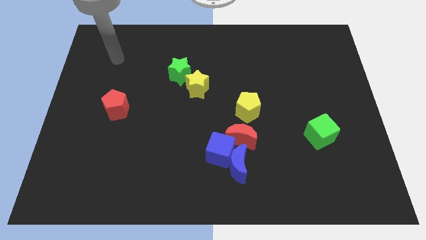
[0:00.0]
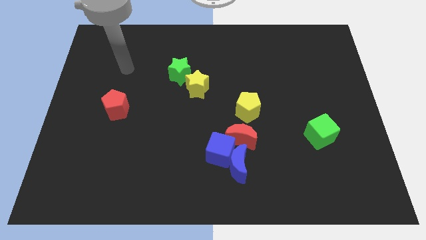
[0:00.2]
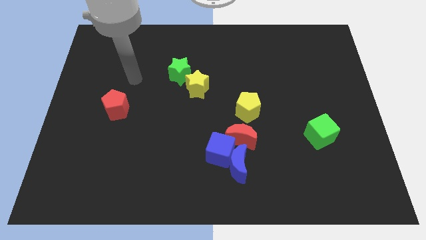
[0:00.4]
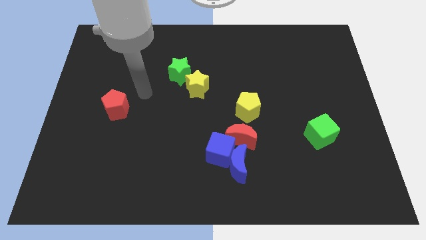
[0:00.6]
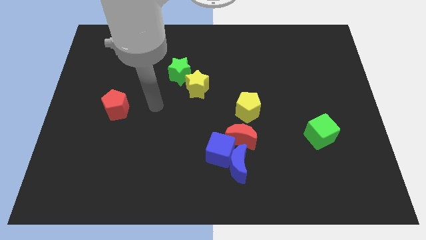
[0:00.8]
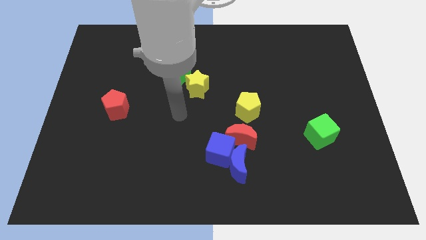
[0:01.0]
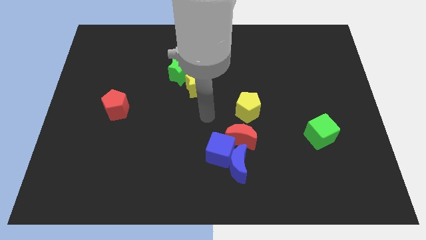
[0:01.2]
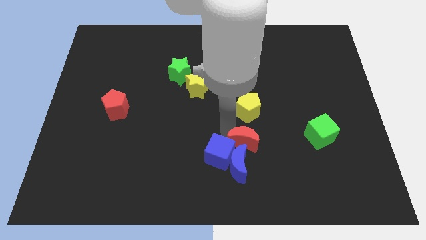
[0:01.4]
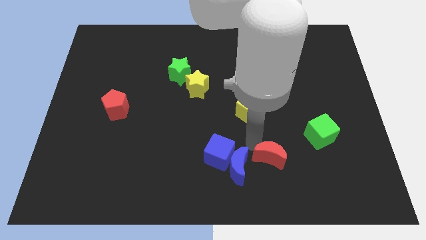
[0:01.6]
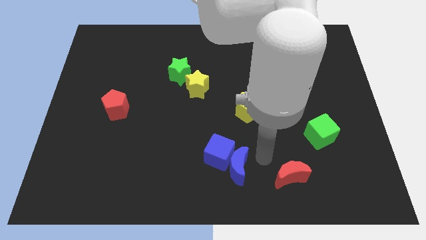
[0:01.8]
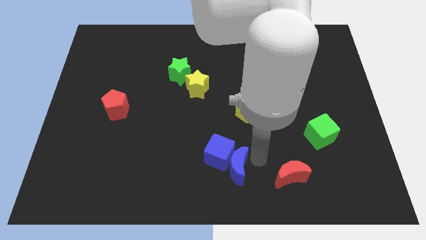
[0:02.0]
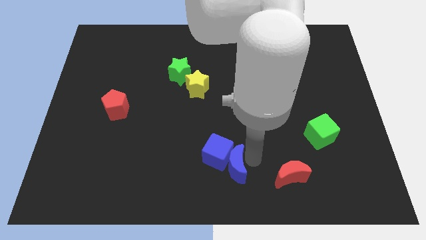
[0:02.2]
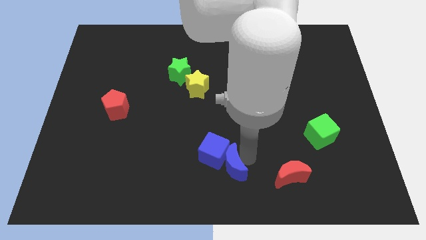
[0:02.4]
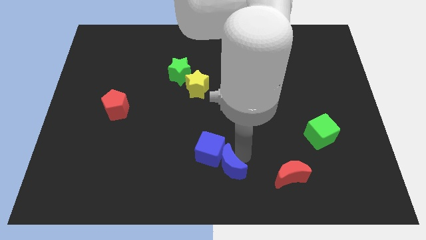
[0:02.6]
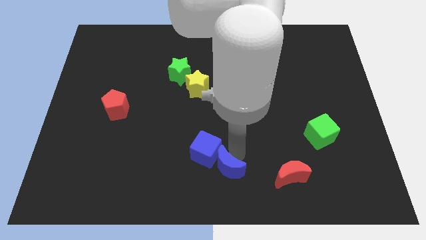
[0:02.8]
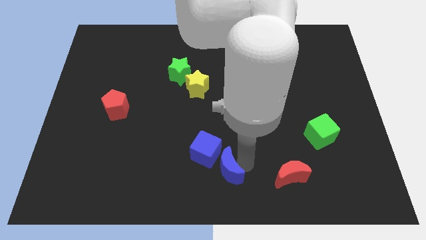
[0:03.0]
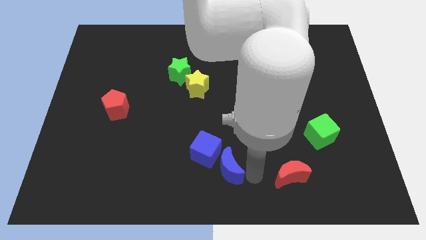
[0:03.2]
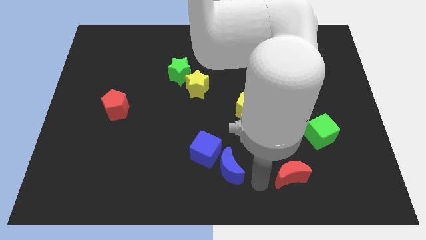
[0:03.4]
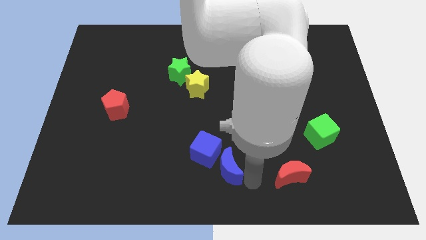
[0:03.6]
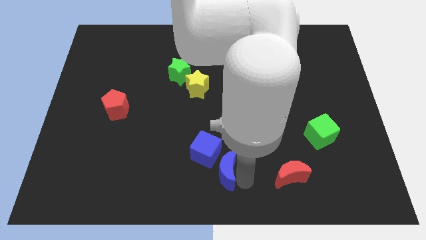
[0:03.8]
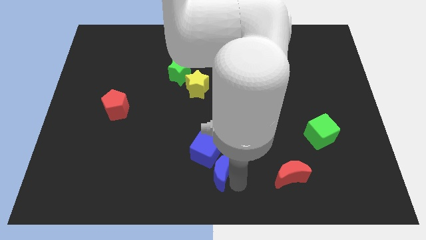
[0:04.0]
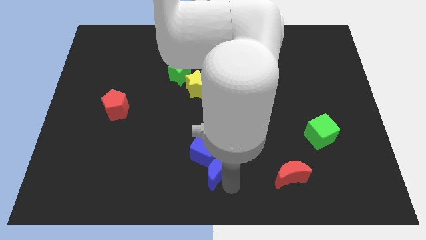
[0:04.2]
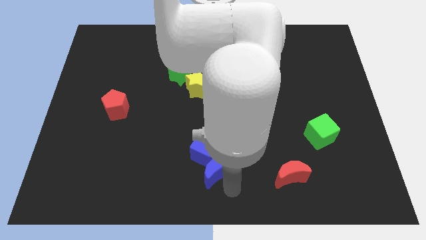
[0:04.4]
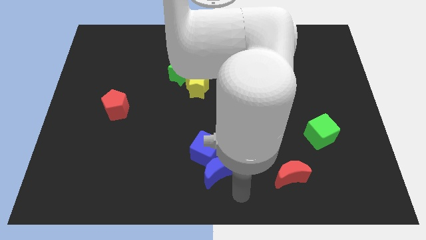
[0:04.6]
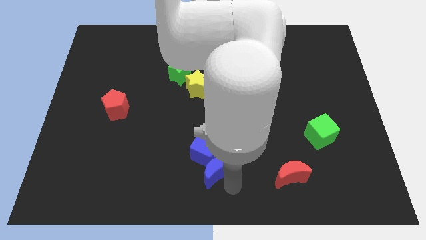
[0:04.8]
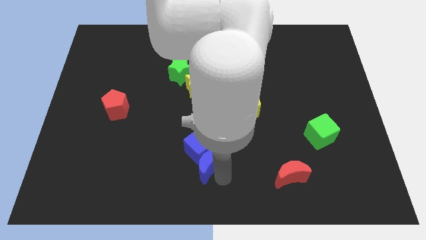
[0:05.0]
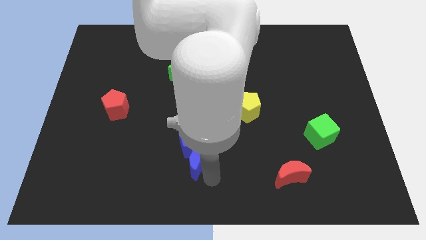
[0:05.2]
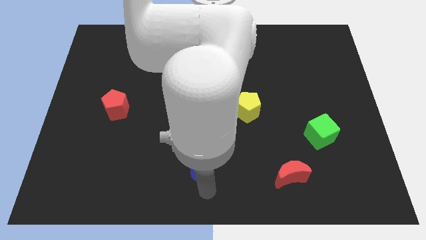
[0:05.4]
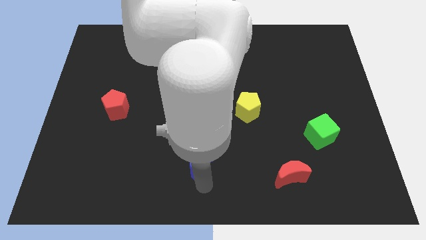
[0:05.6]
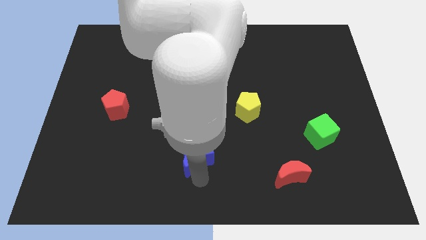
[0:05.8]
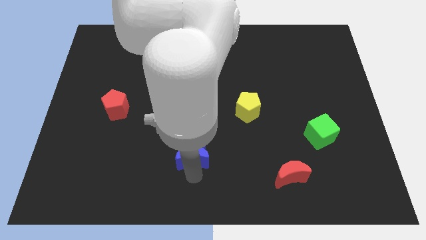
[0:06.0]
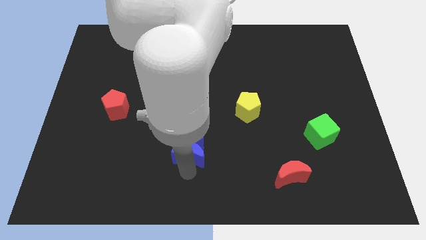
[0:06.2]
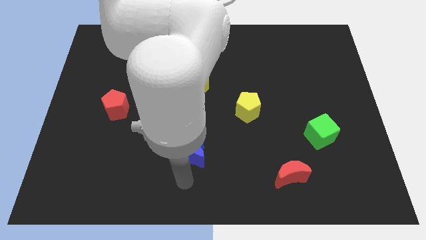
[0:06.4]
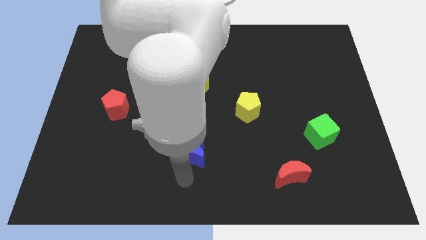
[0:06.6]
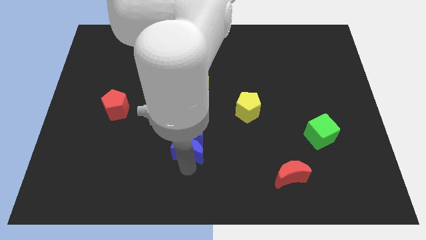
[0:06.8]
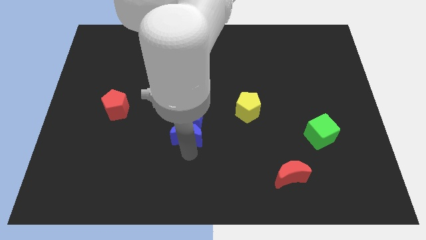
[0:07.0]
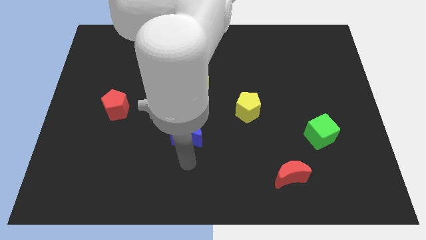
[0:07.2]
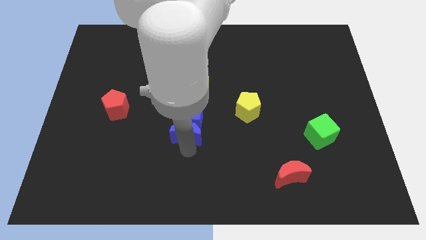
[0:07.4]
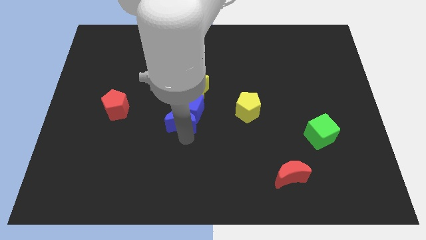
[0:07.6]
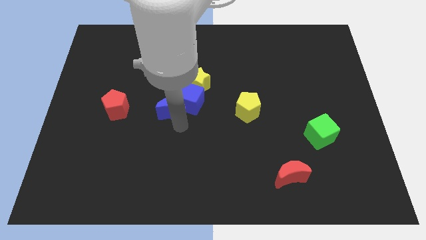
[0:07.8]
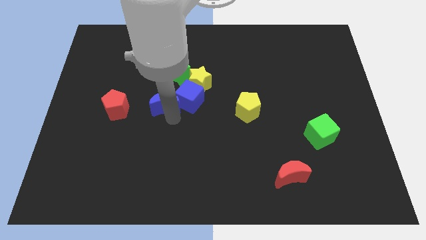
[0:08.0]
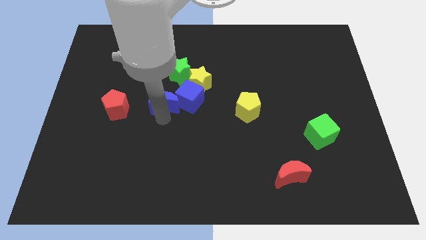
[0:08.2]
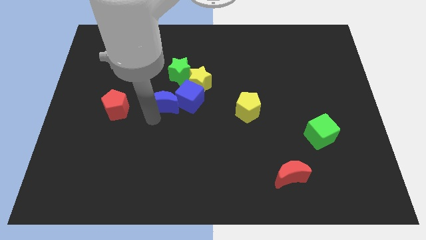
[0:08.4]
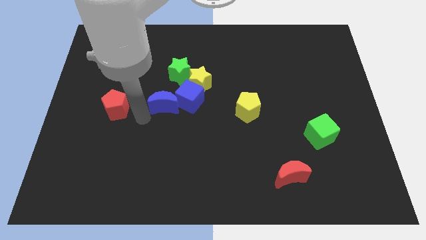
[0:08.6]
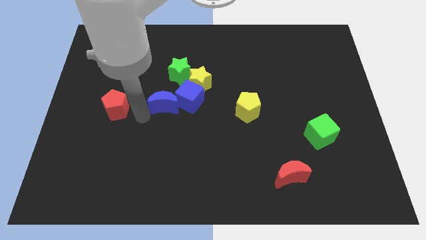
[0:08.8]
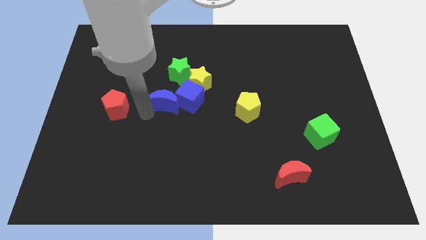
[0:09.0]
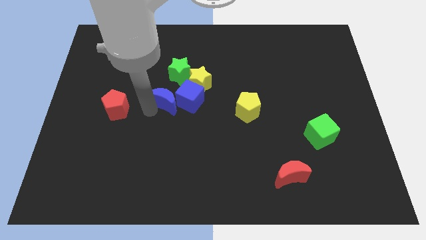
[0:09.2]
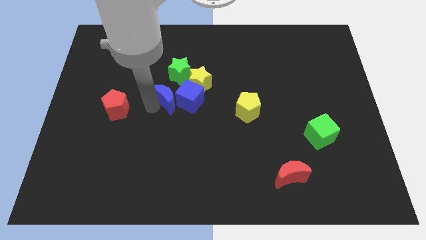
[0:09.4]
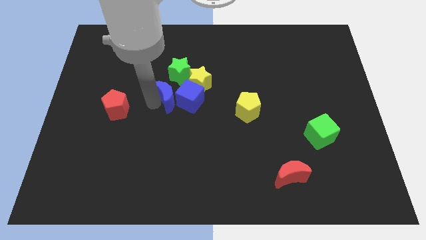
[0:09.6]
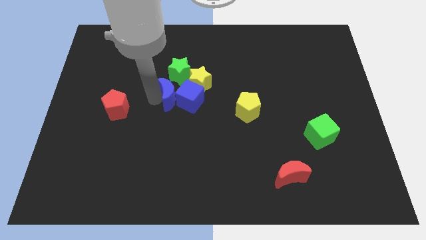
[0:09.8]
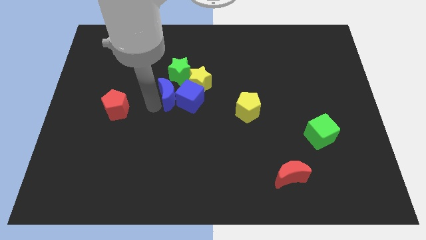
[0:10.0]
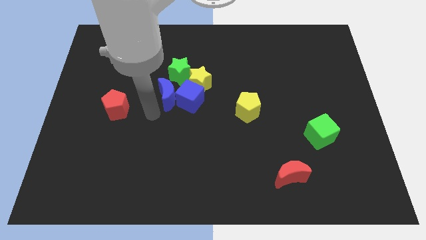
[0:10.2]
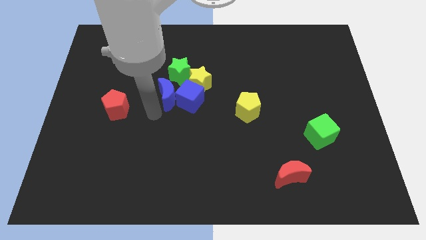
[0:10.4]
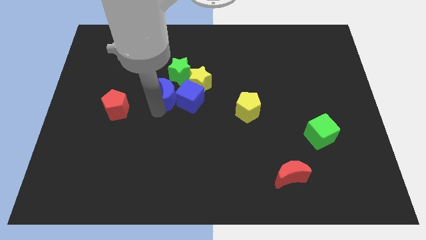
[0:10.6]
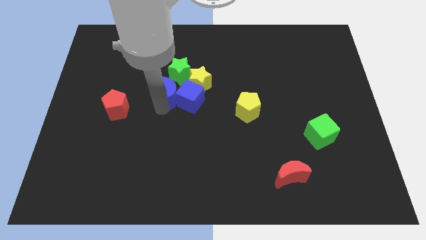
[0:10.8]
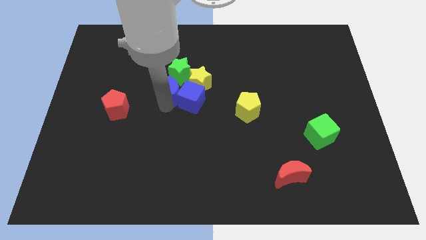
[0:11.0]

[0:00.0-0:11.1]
push the blue moon close to the green star
